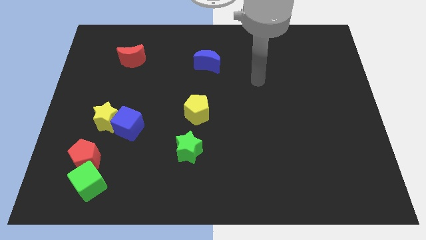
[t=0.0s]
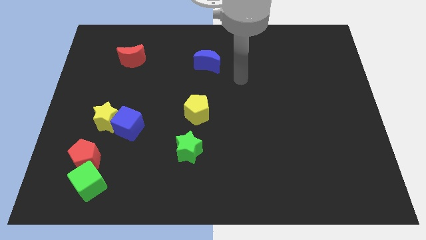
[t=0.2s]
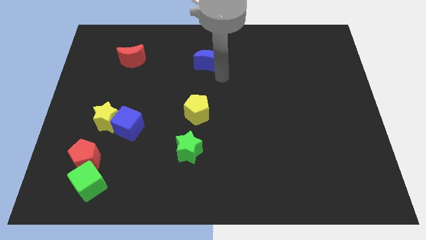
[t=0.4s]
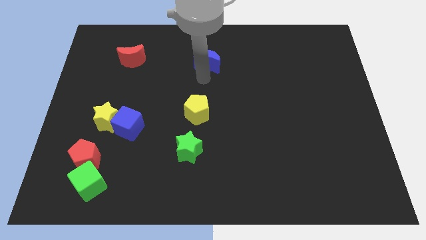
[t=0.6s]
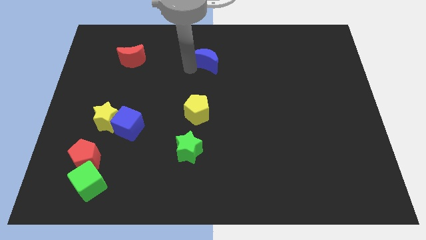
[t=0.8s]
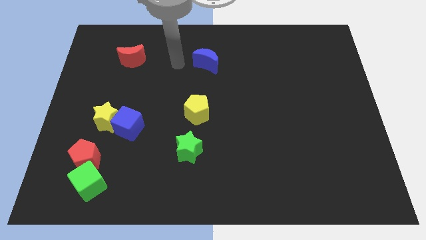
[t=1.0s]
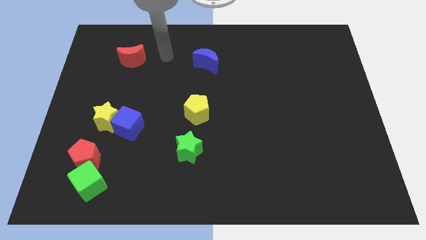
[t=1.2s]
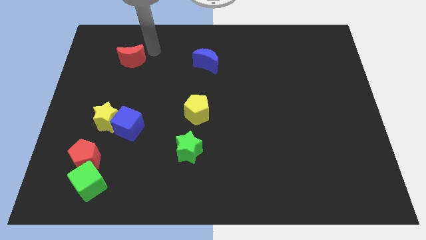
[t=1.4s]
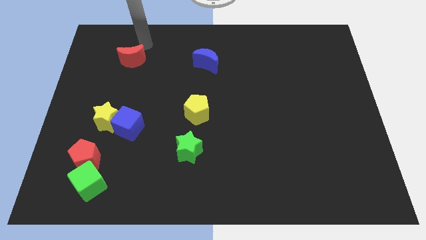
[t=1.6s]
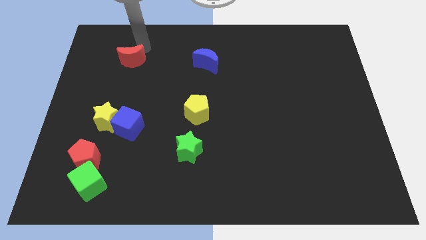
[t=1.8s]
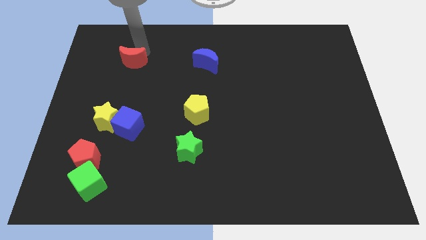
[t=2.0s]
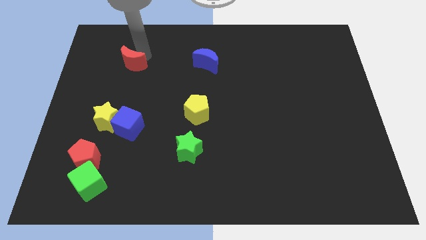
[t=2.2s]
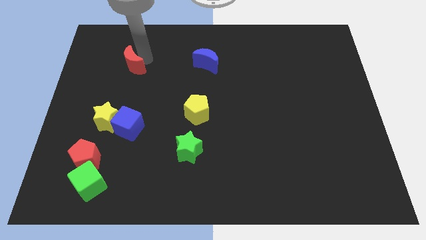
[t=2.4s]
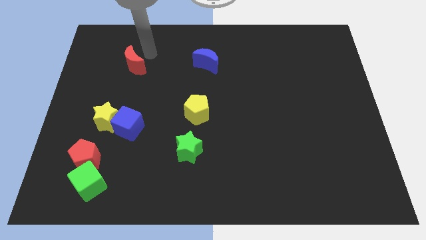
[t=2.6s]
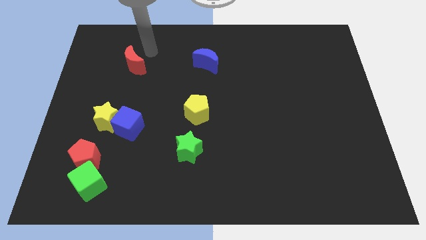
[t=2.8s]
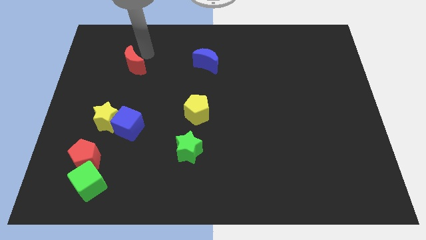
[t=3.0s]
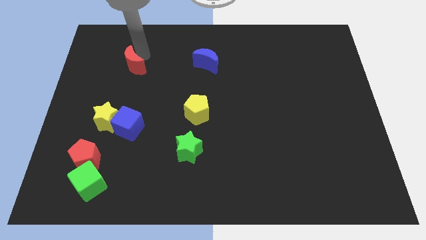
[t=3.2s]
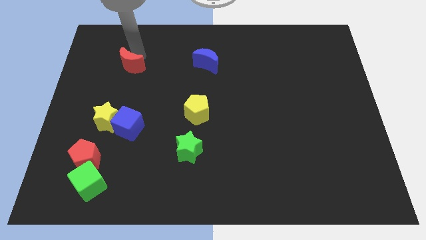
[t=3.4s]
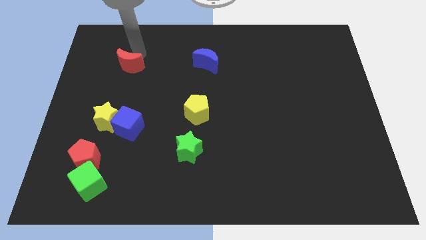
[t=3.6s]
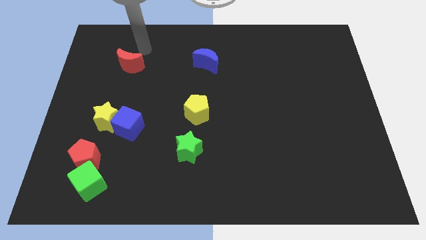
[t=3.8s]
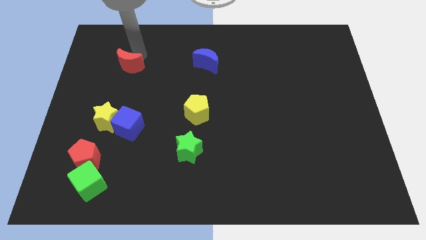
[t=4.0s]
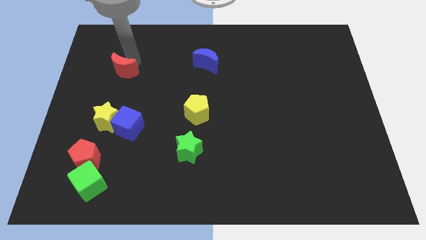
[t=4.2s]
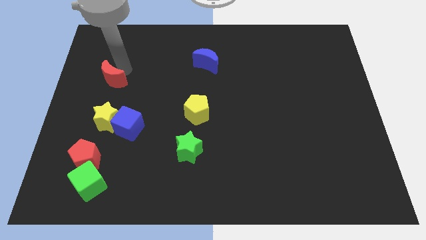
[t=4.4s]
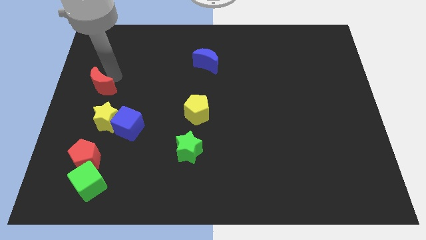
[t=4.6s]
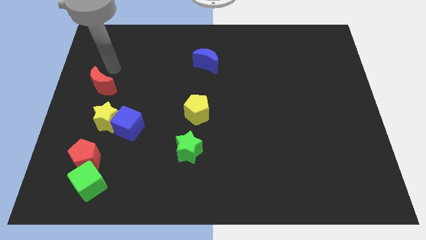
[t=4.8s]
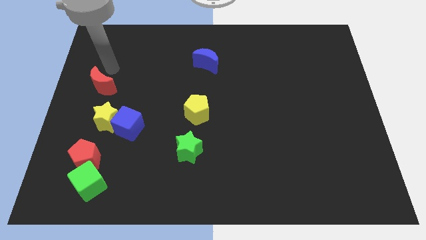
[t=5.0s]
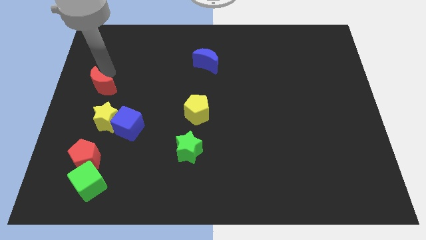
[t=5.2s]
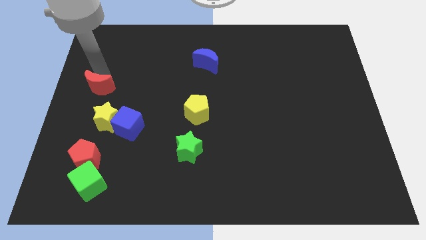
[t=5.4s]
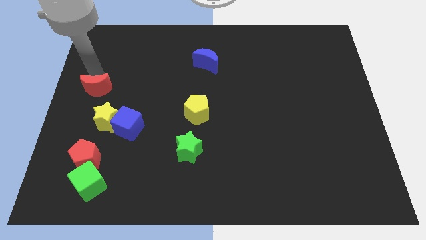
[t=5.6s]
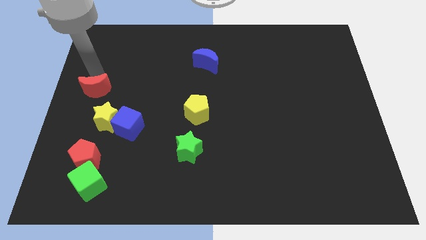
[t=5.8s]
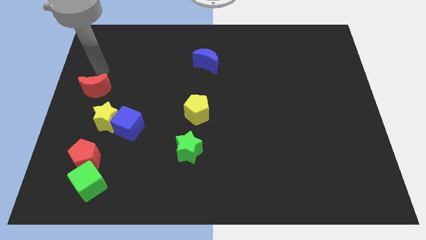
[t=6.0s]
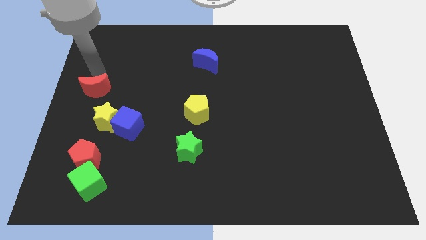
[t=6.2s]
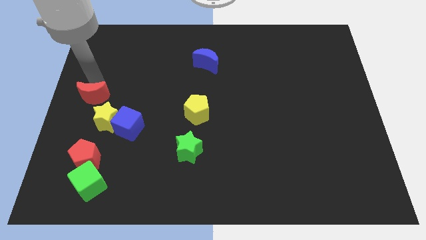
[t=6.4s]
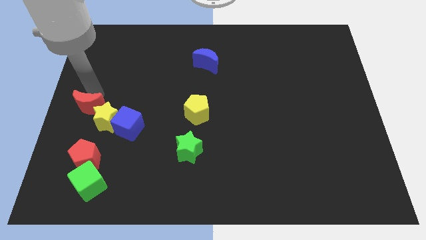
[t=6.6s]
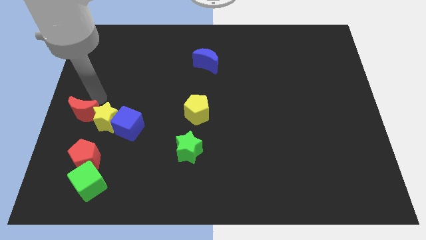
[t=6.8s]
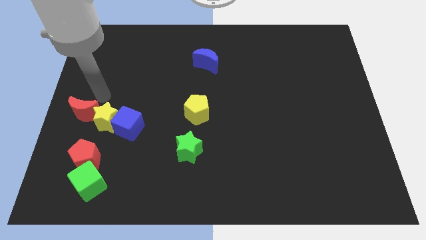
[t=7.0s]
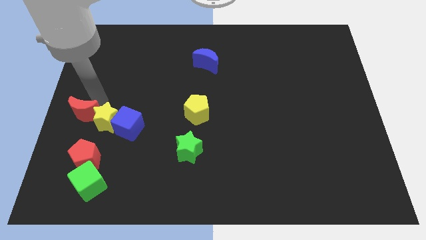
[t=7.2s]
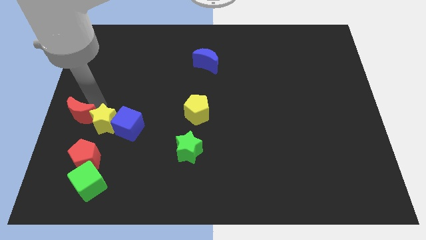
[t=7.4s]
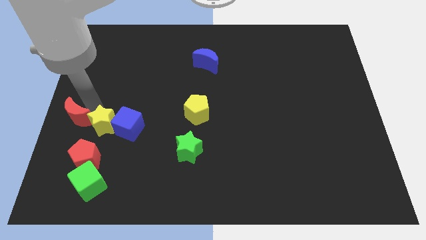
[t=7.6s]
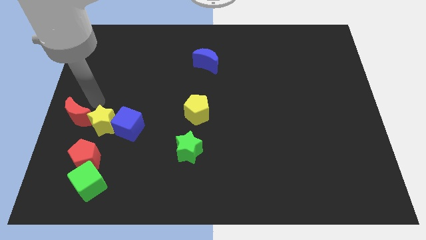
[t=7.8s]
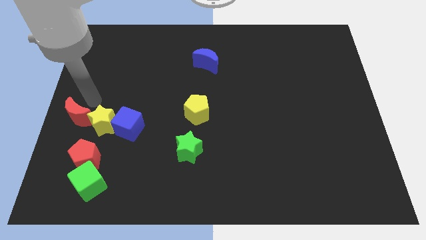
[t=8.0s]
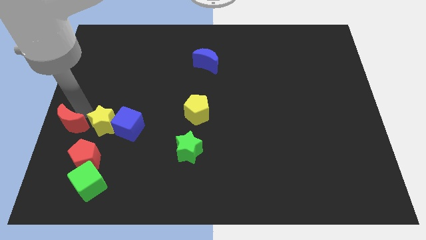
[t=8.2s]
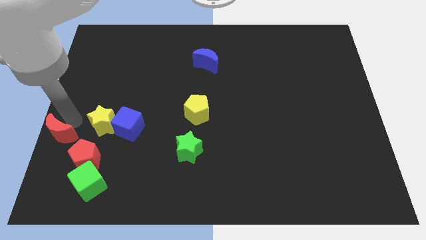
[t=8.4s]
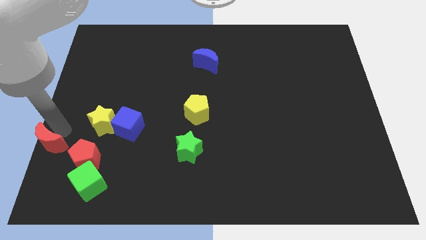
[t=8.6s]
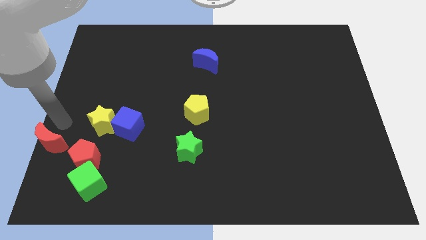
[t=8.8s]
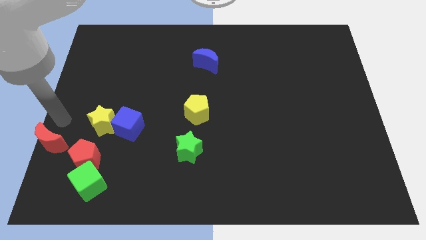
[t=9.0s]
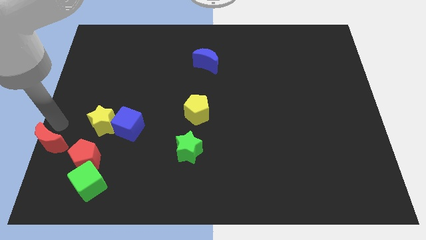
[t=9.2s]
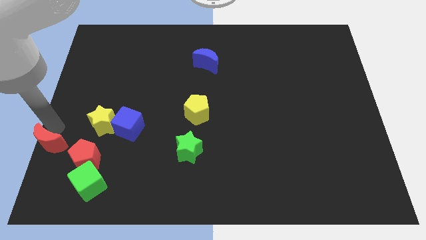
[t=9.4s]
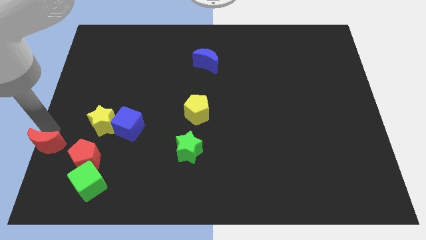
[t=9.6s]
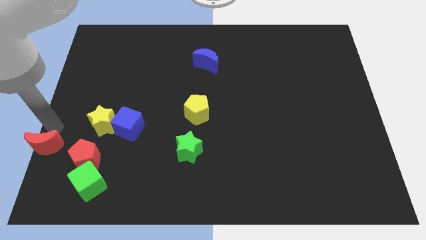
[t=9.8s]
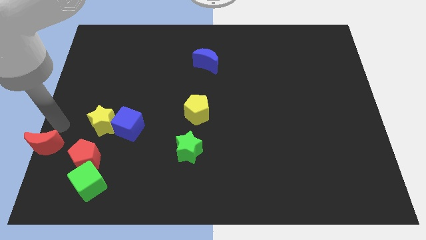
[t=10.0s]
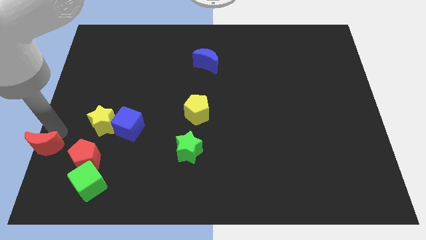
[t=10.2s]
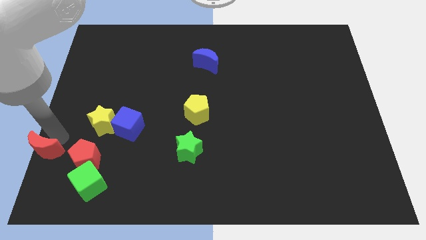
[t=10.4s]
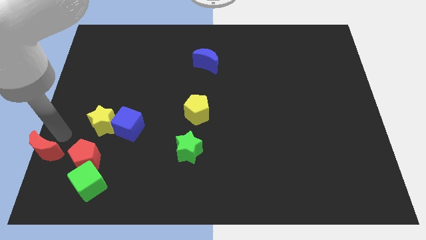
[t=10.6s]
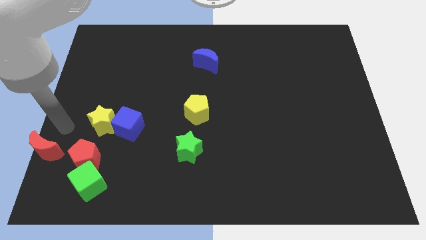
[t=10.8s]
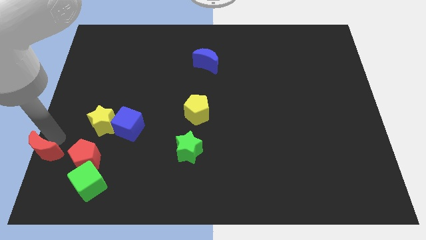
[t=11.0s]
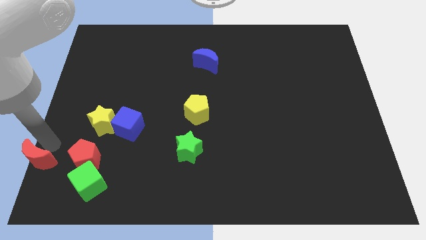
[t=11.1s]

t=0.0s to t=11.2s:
slide the red moon to the bottom left of the board

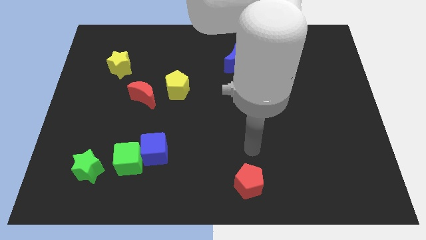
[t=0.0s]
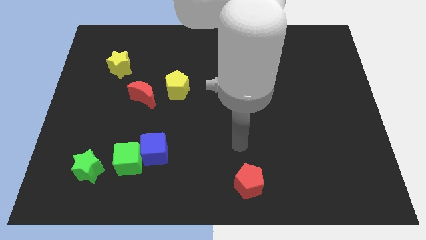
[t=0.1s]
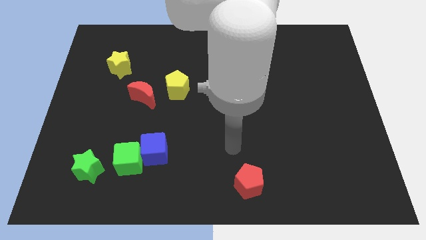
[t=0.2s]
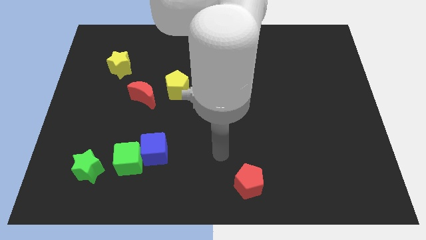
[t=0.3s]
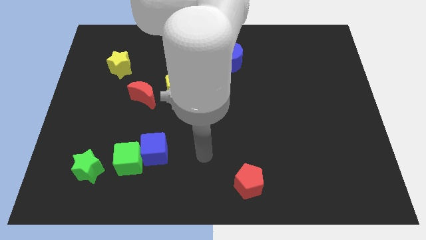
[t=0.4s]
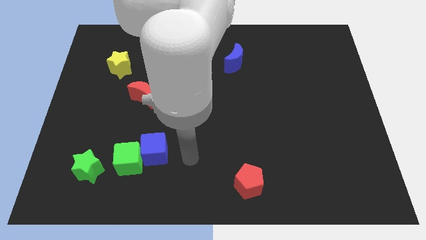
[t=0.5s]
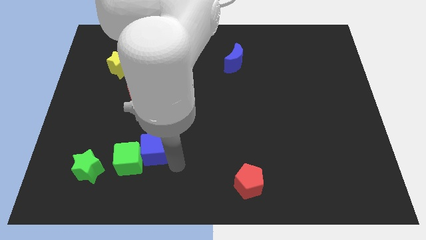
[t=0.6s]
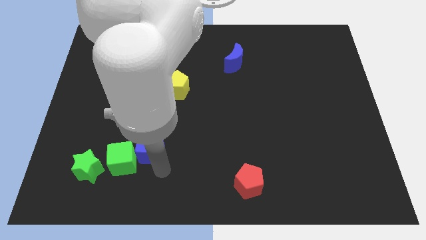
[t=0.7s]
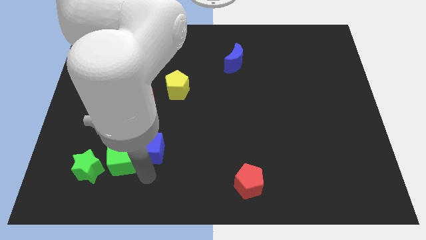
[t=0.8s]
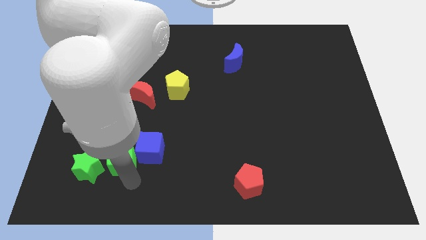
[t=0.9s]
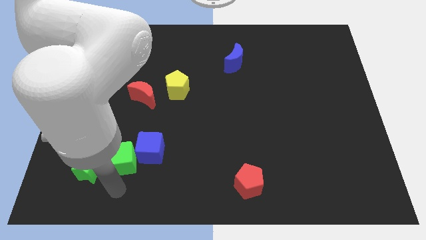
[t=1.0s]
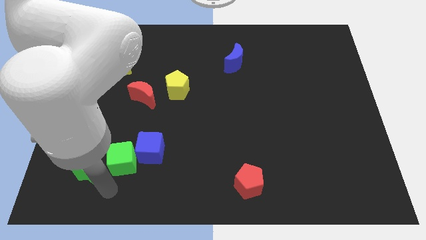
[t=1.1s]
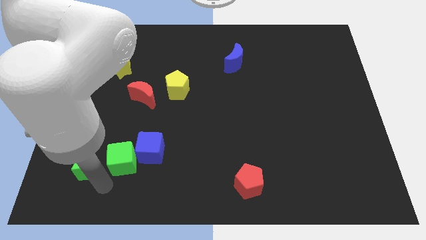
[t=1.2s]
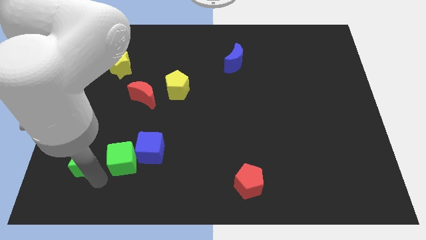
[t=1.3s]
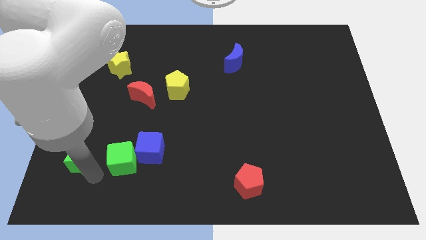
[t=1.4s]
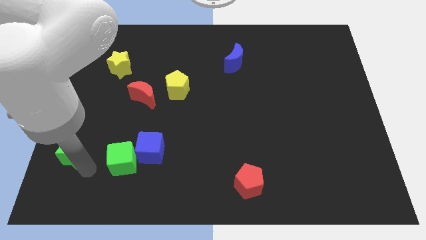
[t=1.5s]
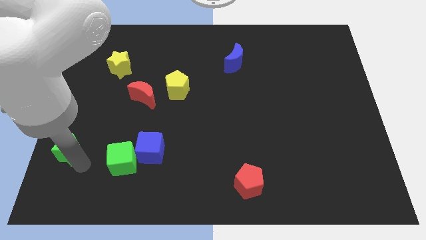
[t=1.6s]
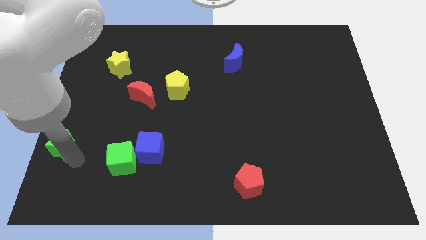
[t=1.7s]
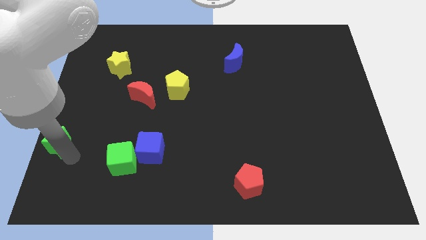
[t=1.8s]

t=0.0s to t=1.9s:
move the green star to the left side of the board
